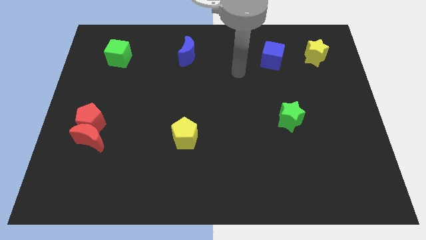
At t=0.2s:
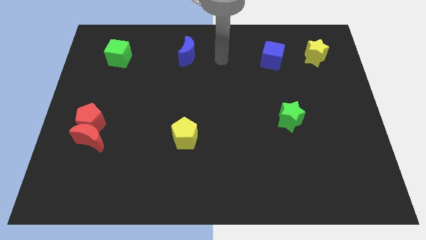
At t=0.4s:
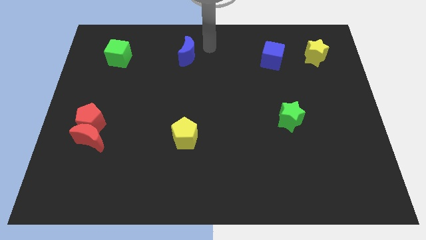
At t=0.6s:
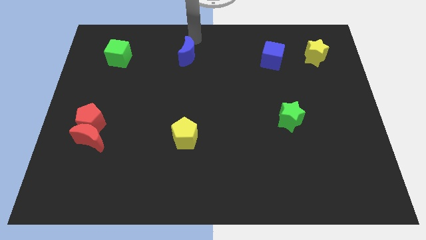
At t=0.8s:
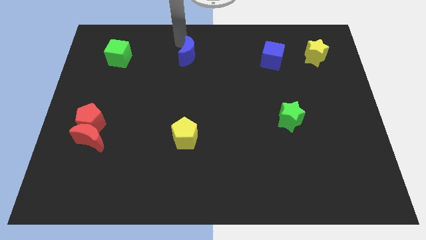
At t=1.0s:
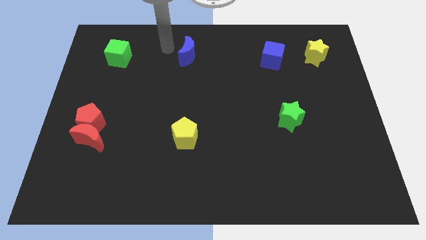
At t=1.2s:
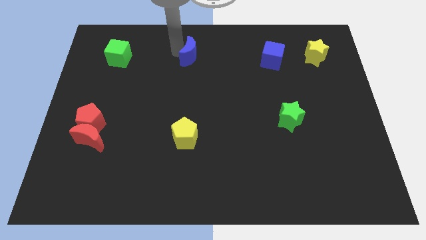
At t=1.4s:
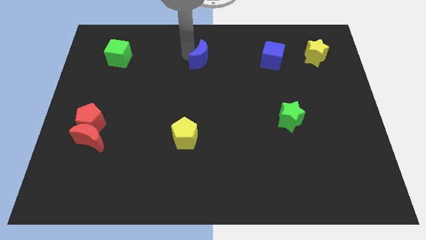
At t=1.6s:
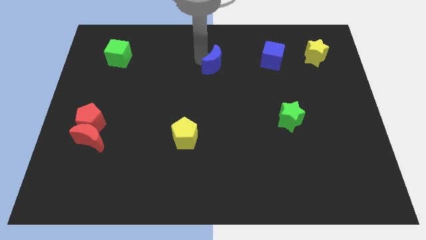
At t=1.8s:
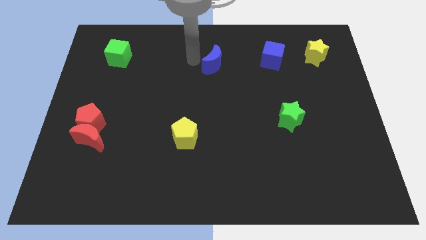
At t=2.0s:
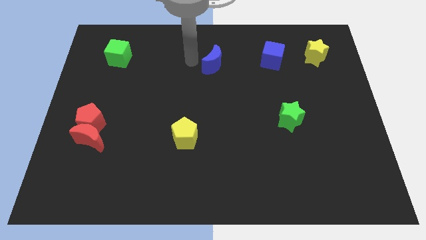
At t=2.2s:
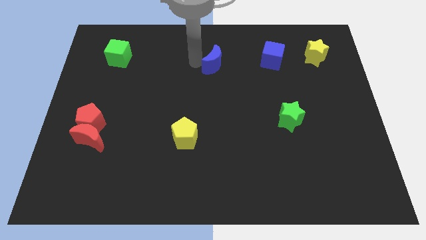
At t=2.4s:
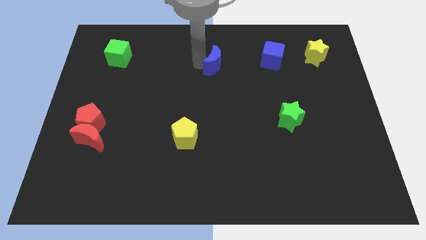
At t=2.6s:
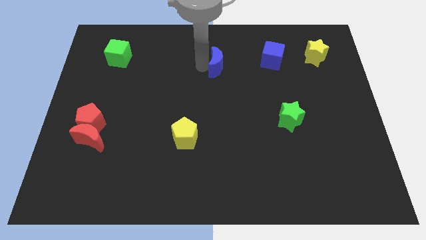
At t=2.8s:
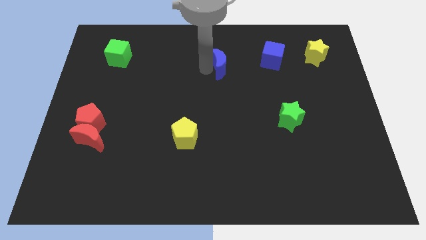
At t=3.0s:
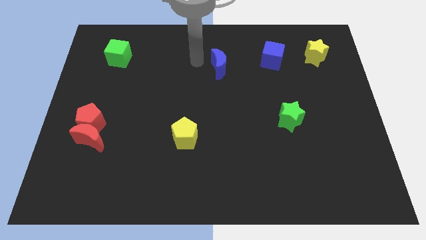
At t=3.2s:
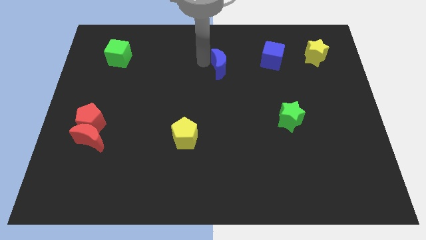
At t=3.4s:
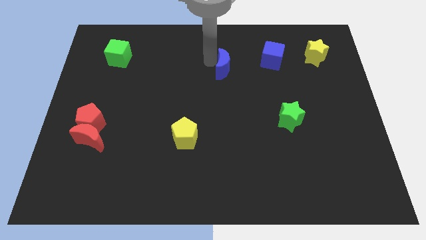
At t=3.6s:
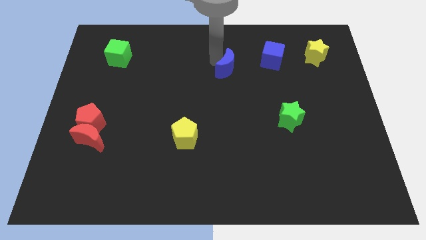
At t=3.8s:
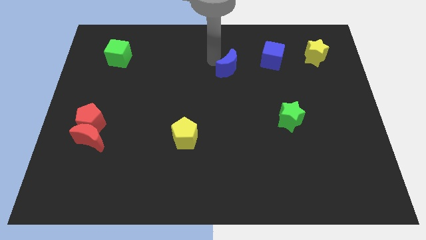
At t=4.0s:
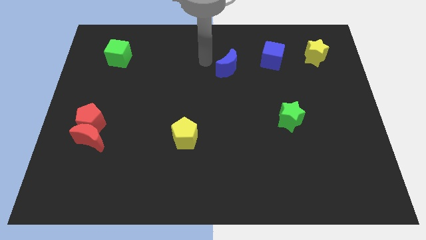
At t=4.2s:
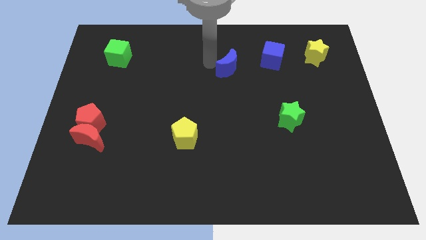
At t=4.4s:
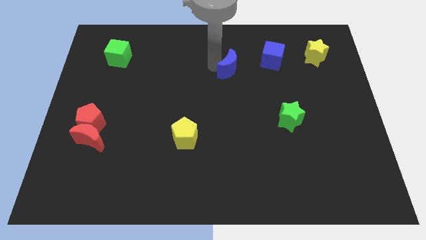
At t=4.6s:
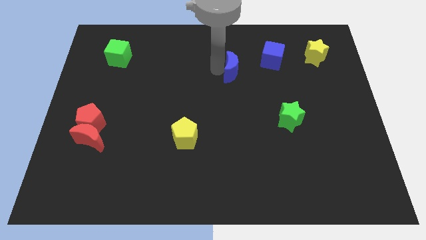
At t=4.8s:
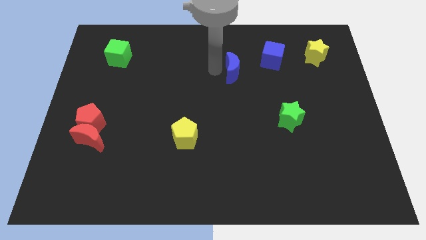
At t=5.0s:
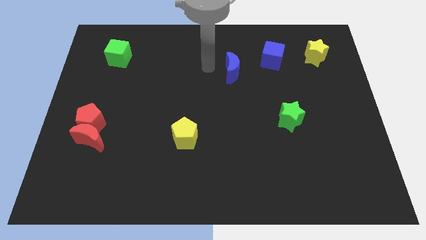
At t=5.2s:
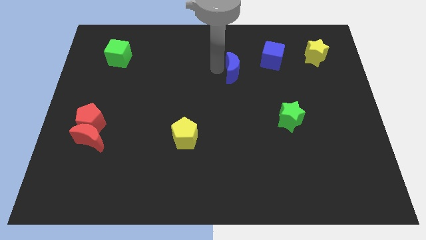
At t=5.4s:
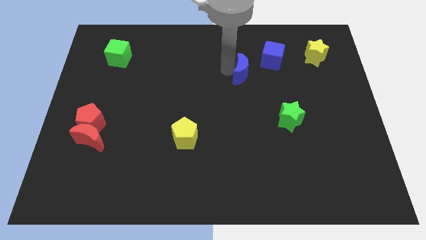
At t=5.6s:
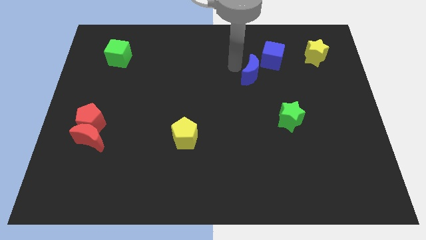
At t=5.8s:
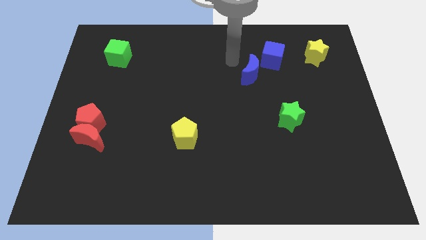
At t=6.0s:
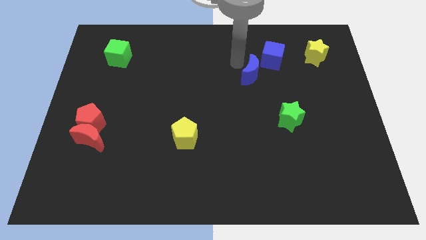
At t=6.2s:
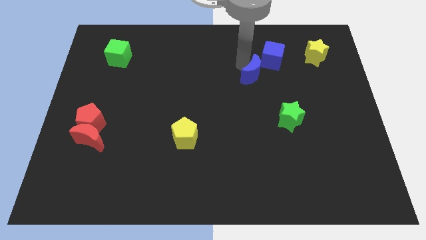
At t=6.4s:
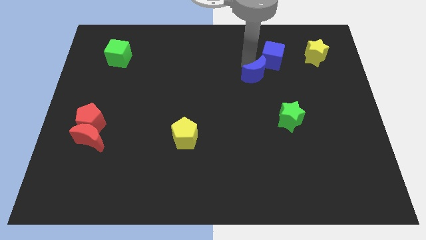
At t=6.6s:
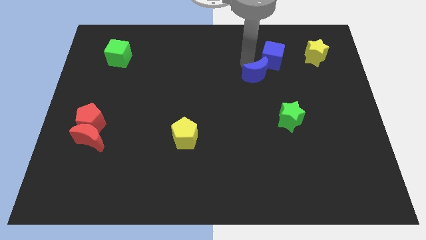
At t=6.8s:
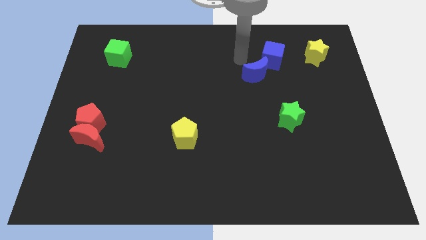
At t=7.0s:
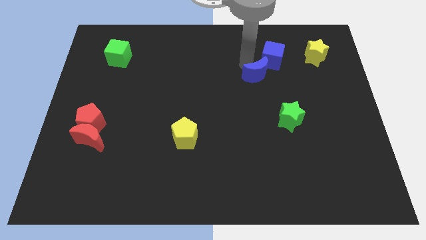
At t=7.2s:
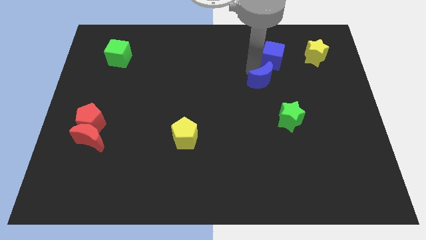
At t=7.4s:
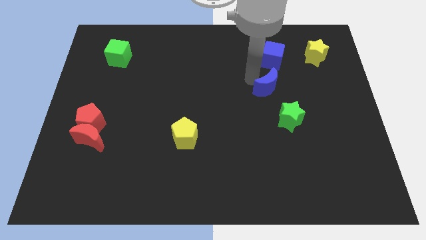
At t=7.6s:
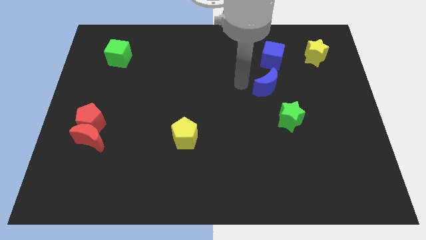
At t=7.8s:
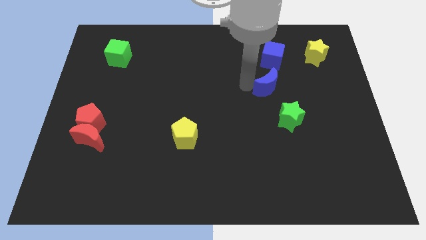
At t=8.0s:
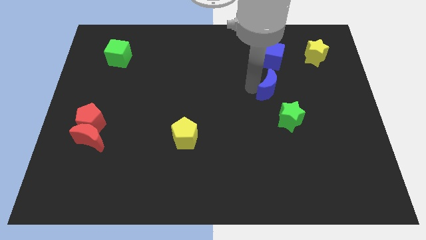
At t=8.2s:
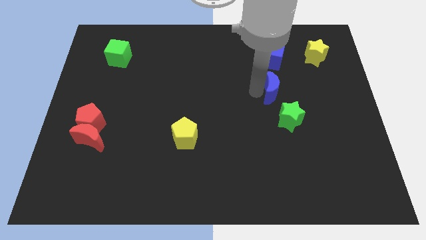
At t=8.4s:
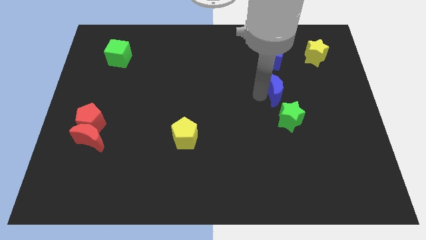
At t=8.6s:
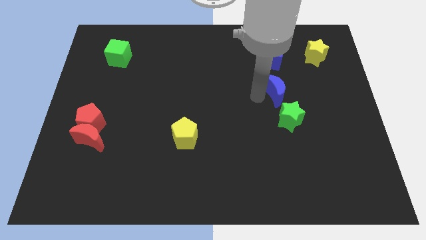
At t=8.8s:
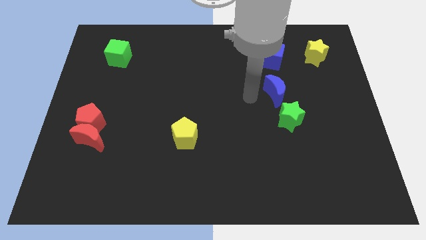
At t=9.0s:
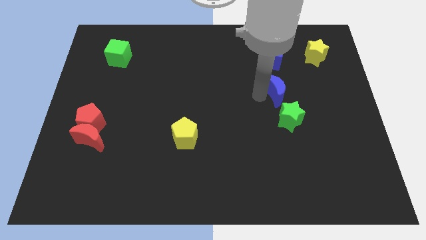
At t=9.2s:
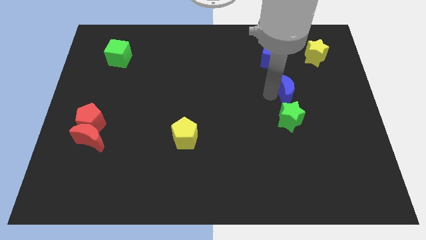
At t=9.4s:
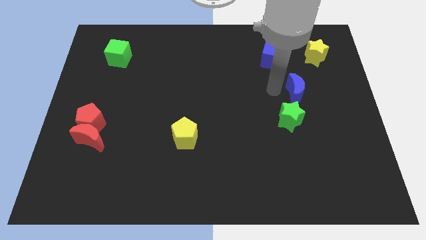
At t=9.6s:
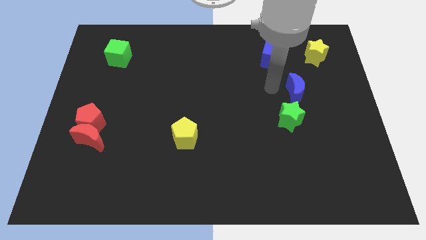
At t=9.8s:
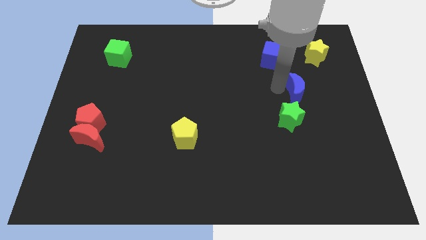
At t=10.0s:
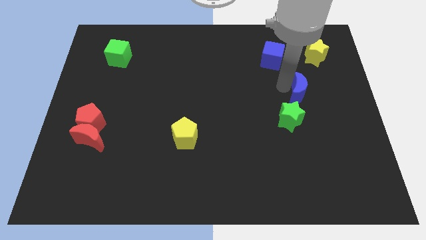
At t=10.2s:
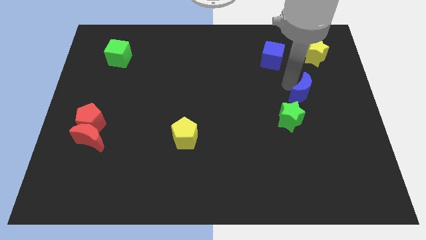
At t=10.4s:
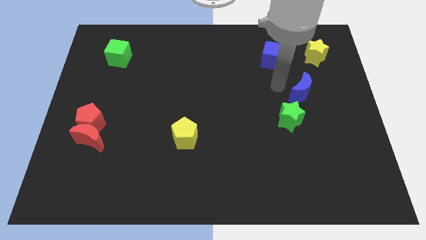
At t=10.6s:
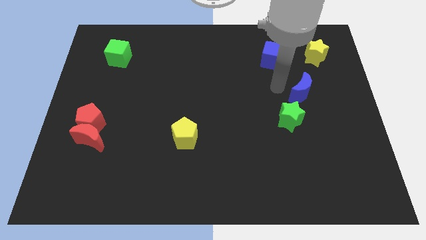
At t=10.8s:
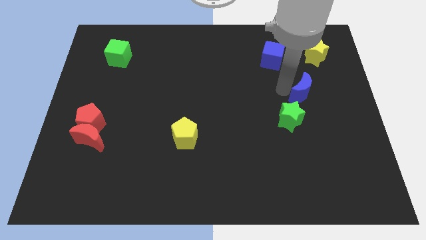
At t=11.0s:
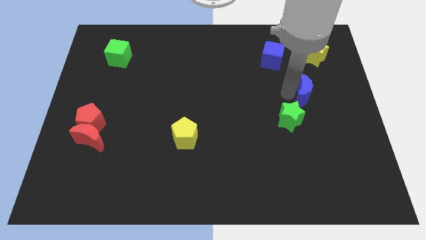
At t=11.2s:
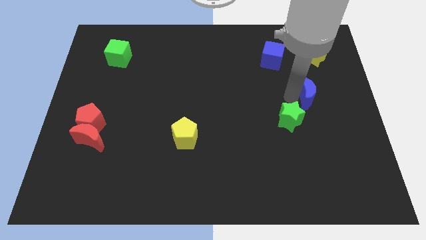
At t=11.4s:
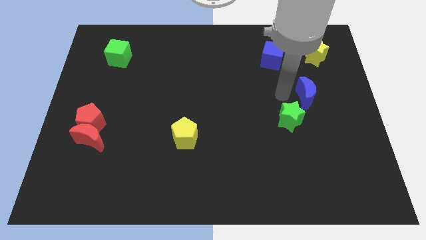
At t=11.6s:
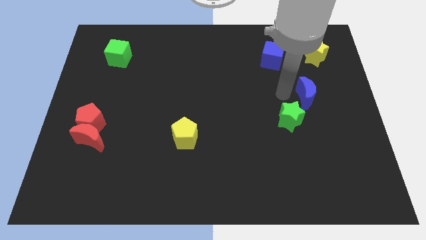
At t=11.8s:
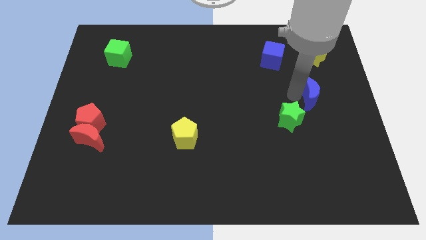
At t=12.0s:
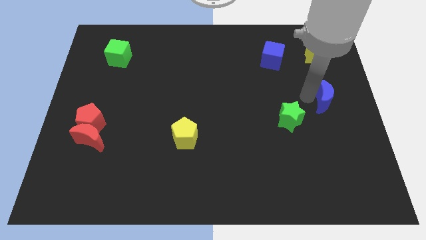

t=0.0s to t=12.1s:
push the blue moon to the center right
